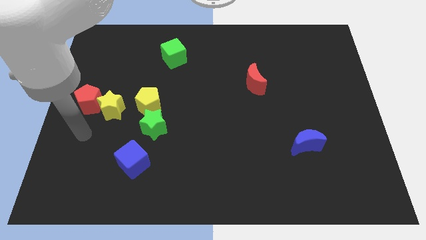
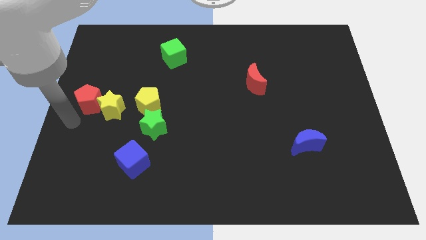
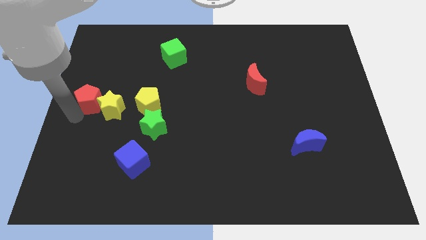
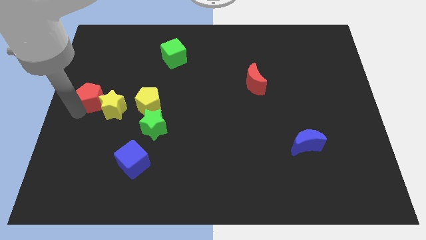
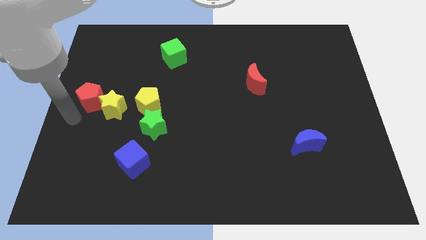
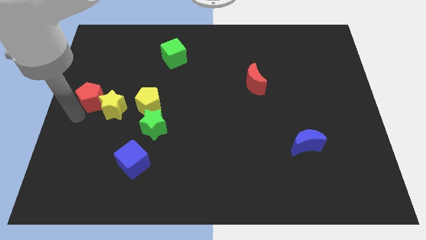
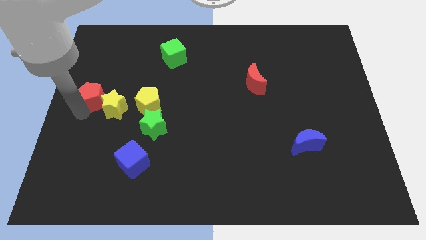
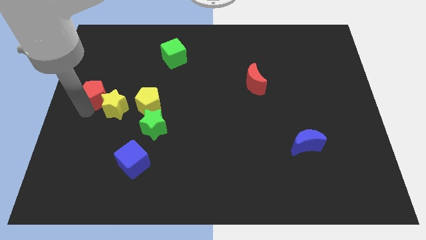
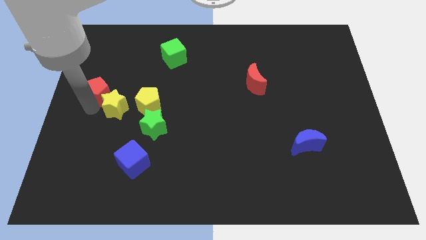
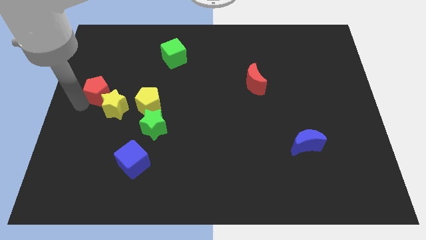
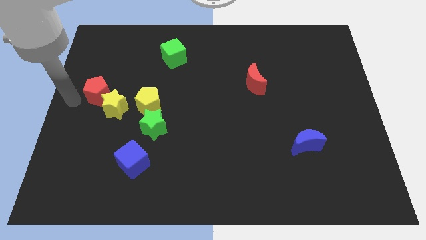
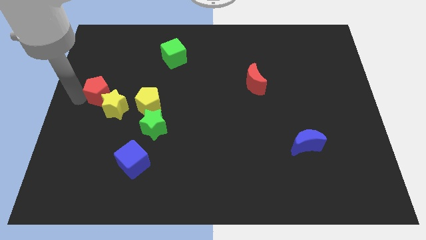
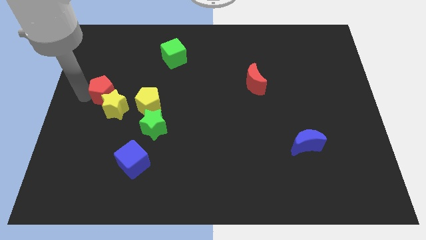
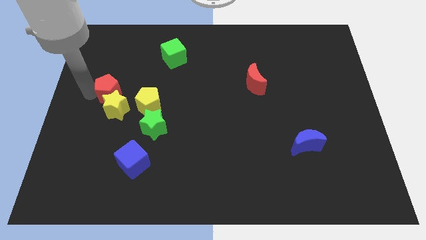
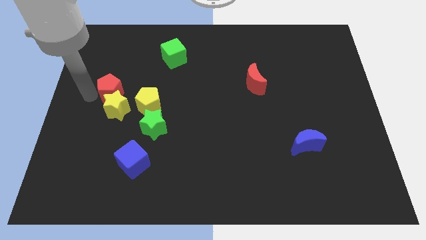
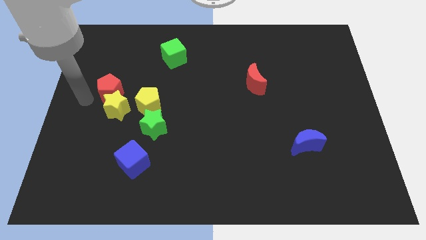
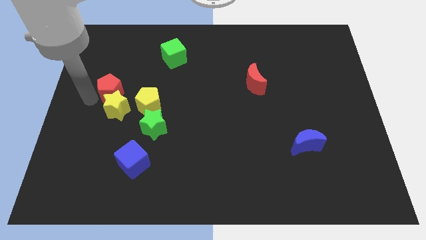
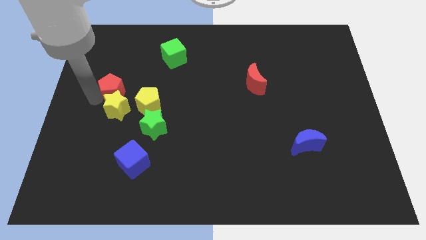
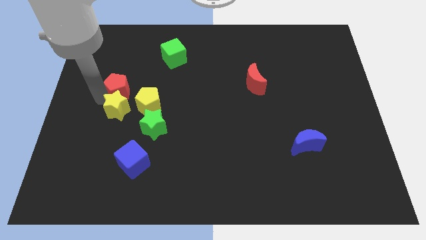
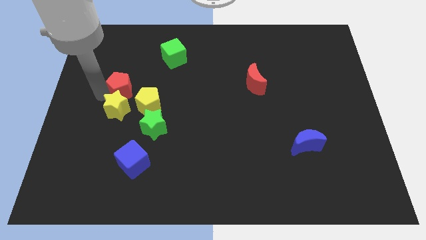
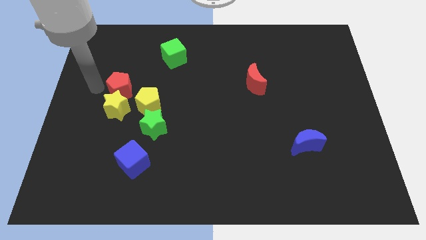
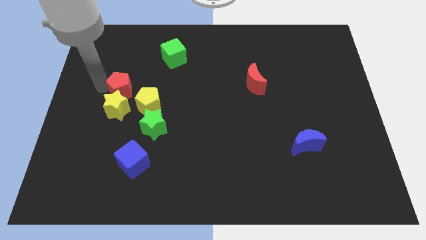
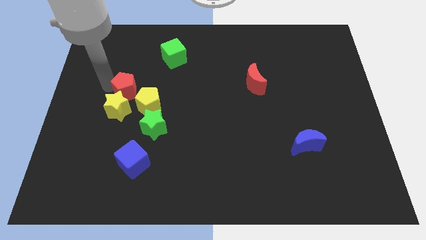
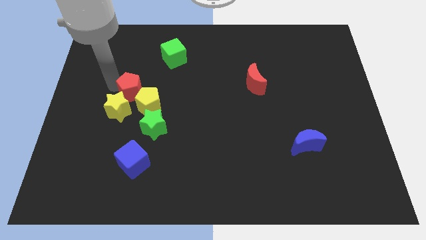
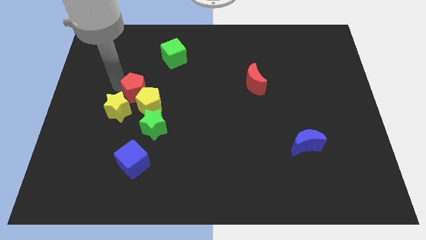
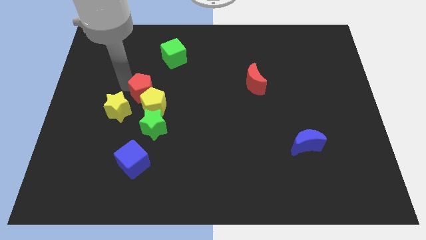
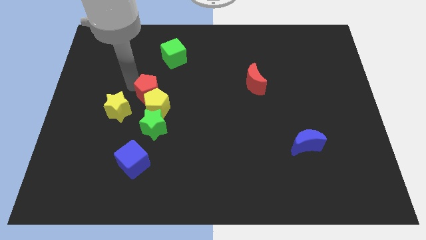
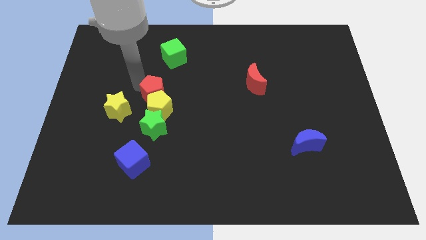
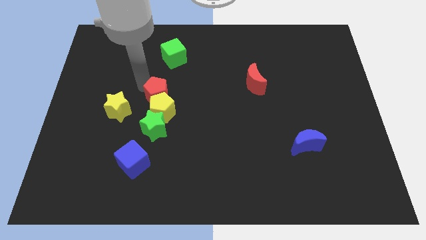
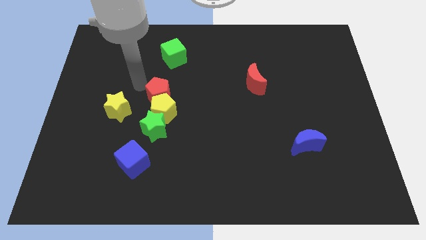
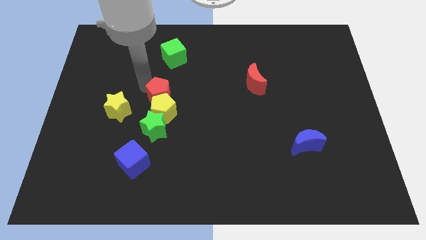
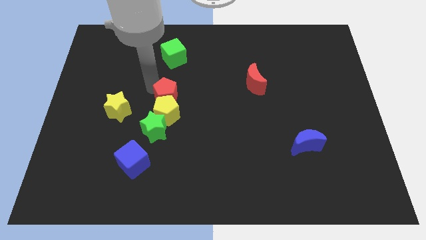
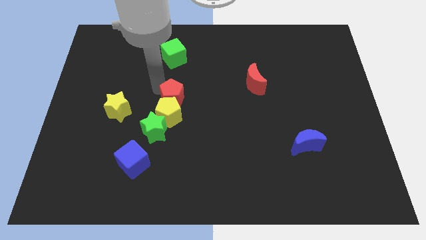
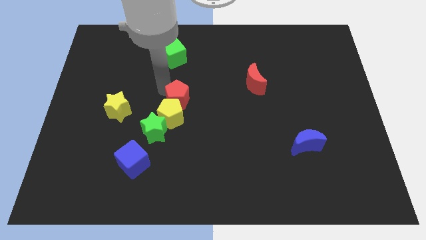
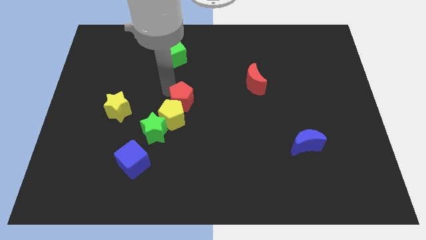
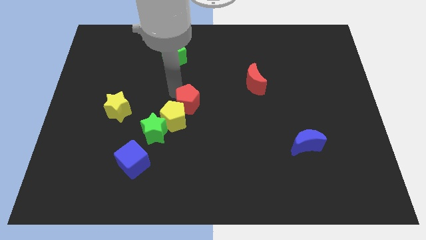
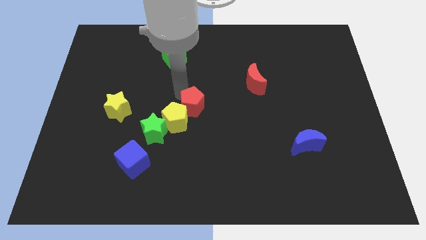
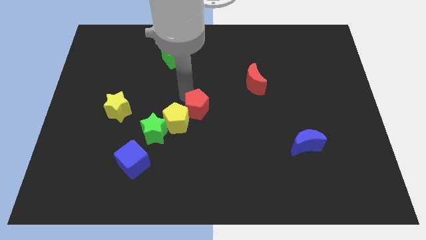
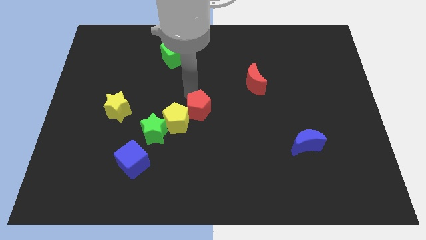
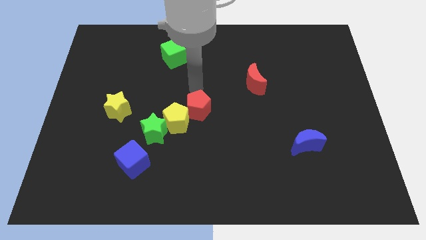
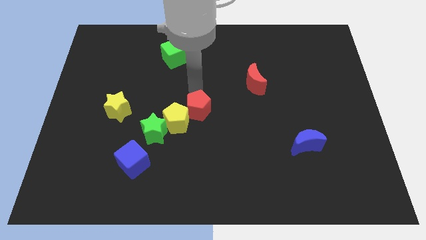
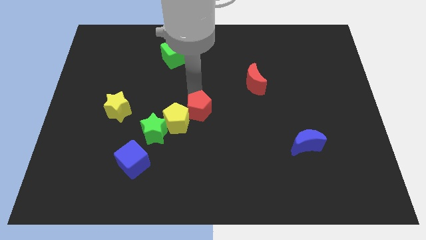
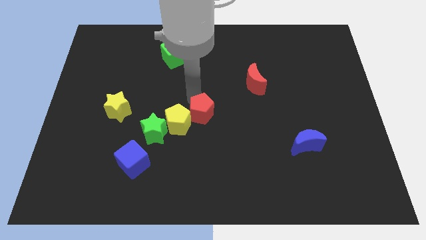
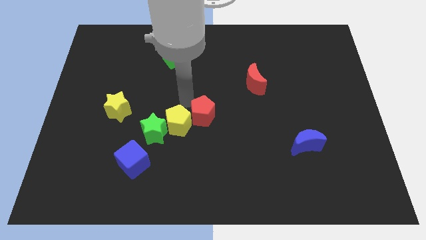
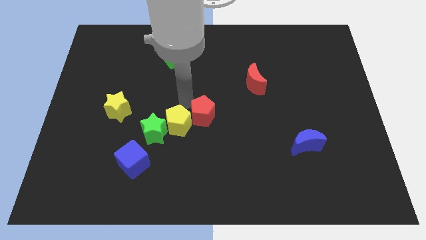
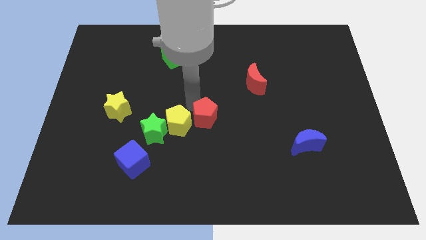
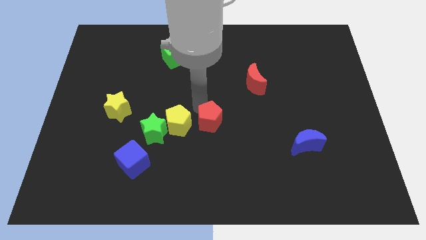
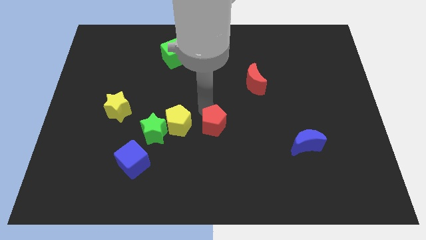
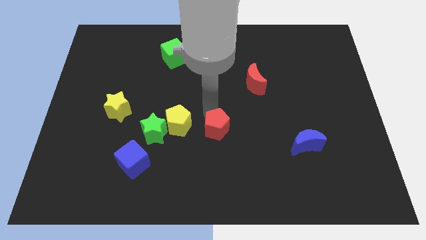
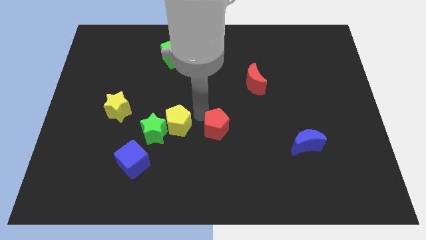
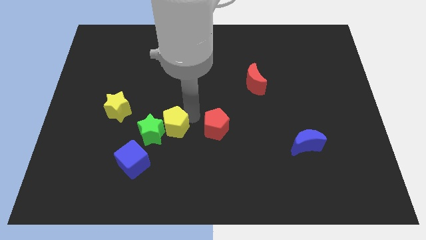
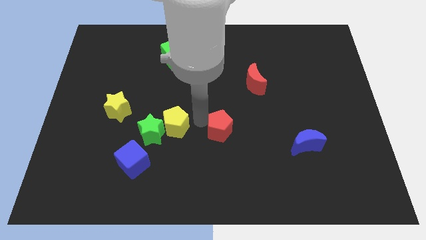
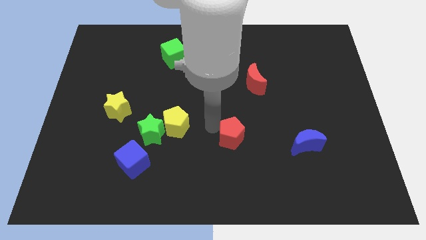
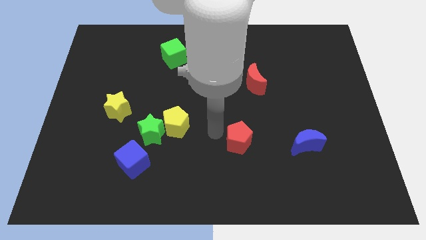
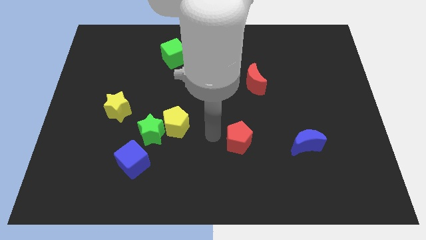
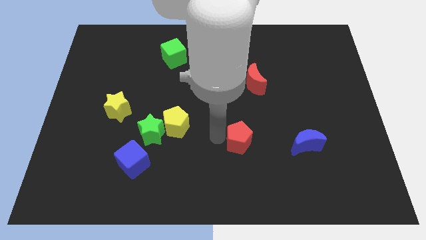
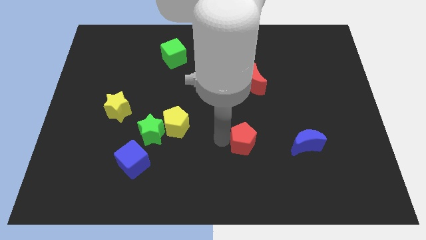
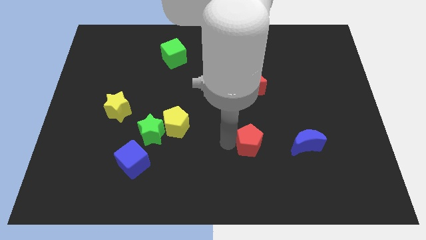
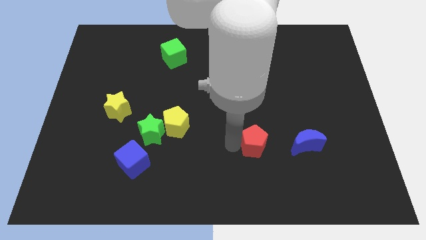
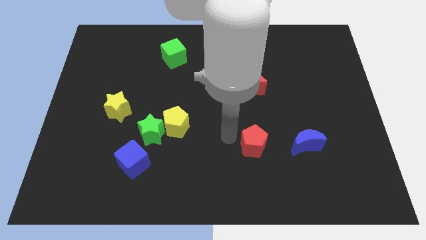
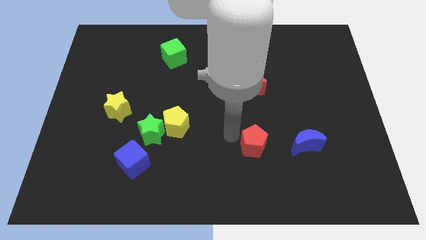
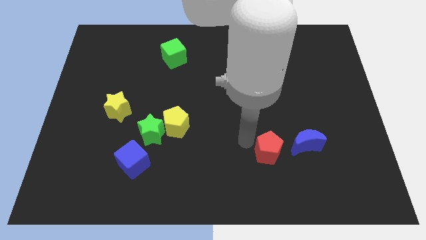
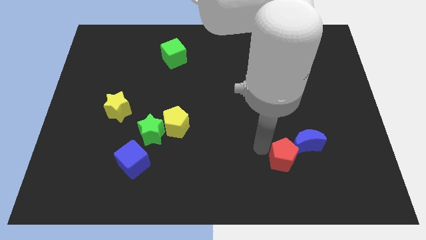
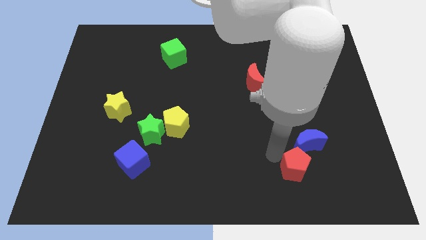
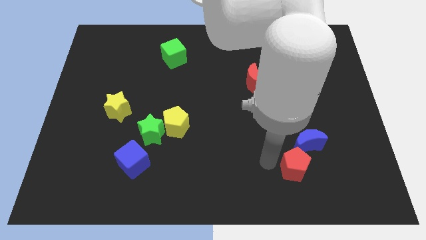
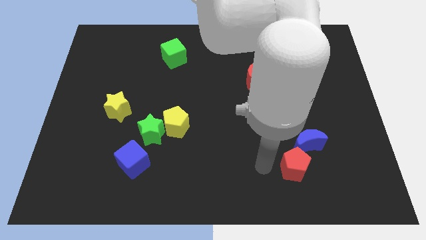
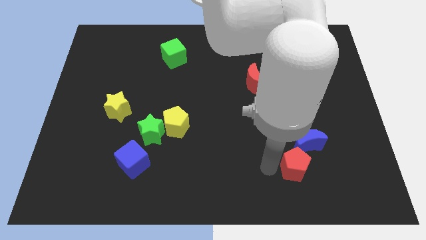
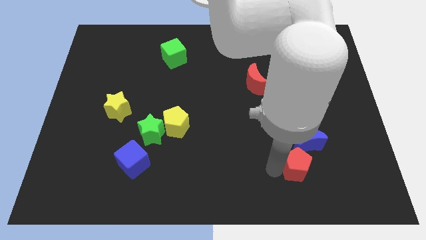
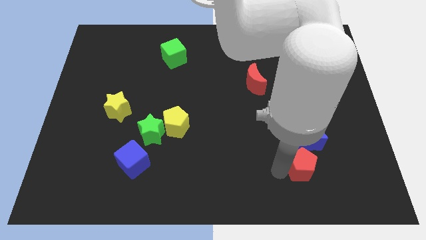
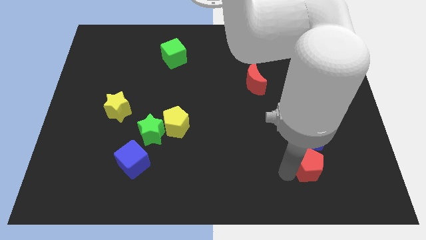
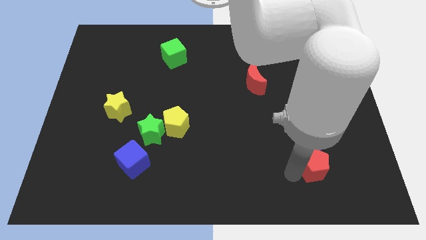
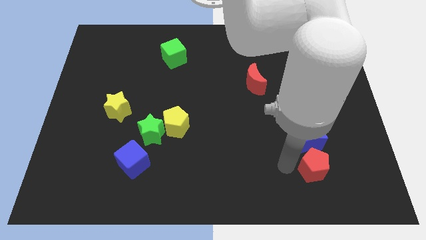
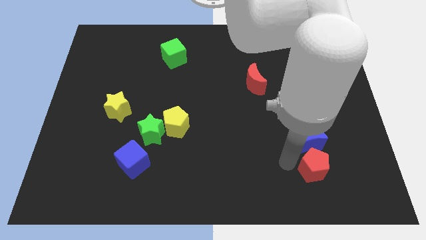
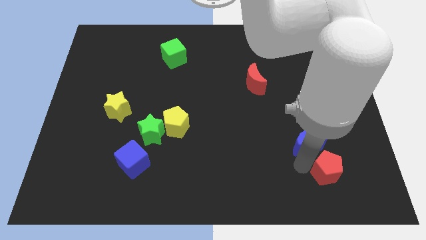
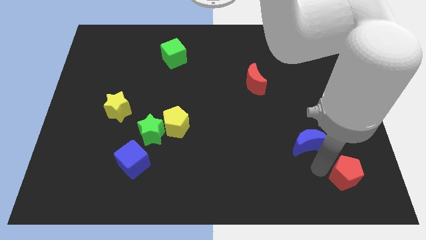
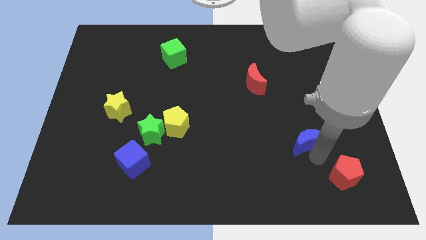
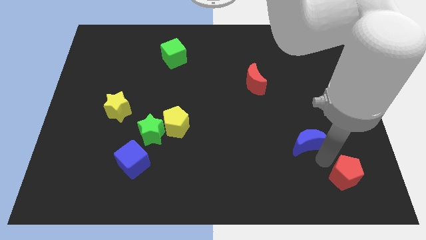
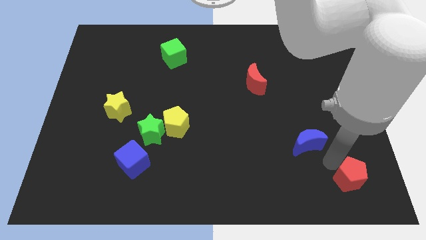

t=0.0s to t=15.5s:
push the red pentagon to the bottom right
